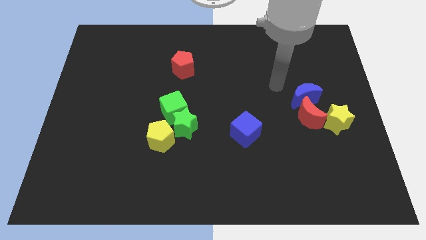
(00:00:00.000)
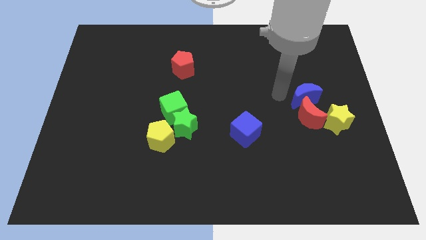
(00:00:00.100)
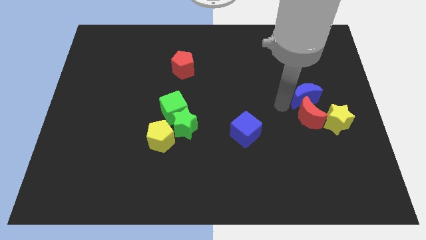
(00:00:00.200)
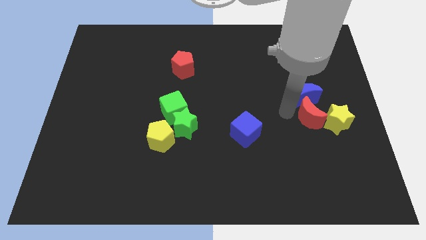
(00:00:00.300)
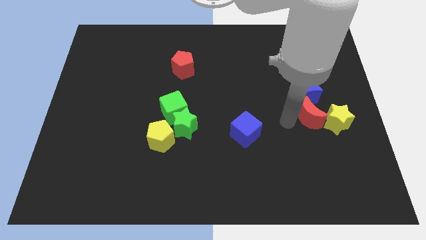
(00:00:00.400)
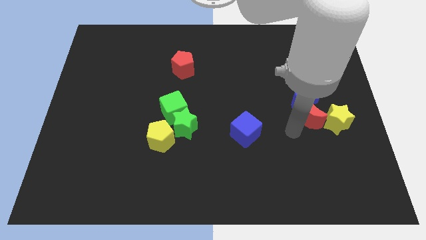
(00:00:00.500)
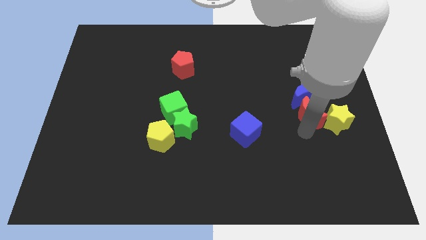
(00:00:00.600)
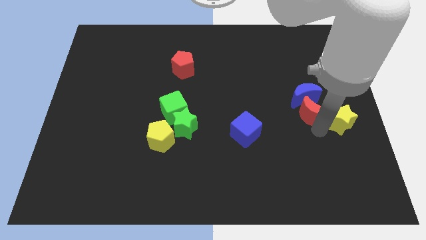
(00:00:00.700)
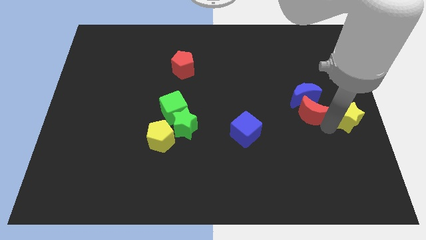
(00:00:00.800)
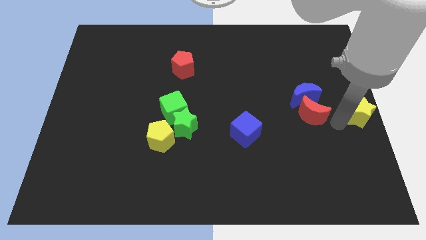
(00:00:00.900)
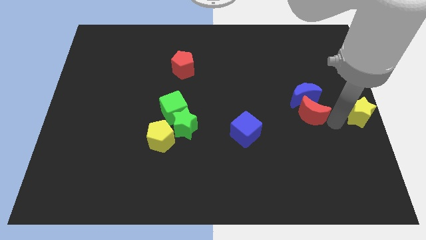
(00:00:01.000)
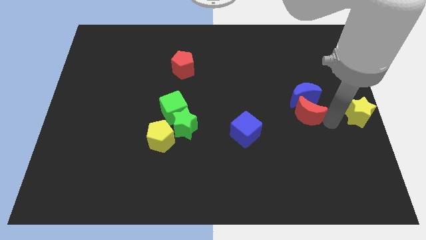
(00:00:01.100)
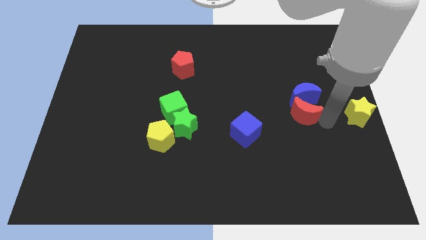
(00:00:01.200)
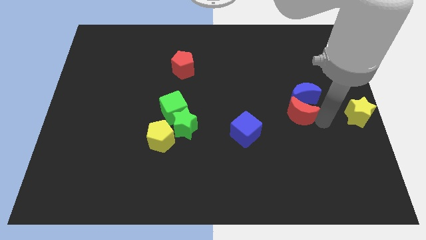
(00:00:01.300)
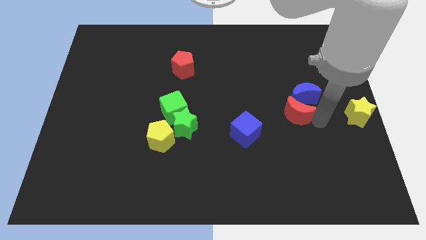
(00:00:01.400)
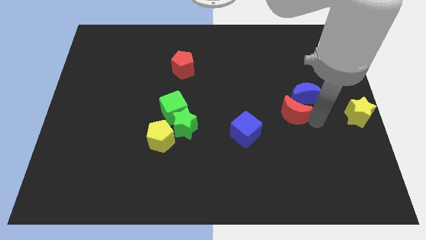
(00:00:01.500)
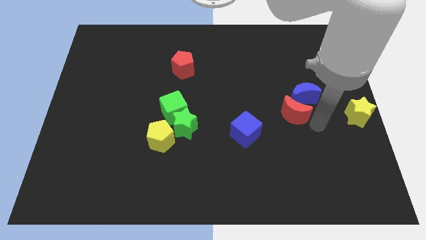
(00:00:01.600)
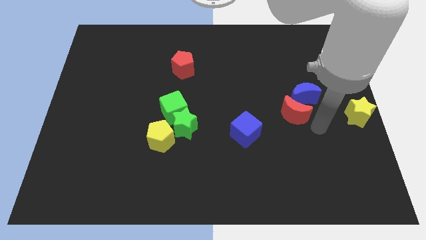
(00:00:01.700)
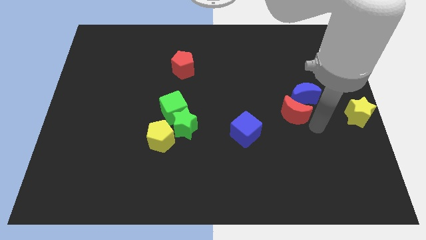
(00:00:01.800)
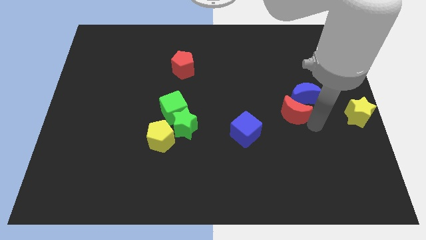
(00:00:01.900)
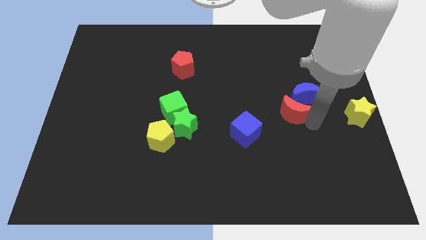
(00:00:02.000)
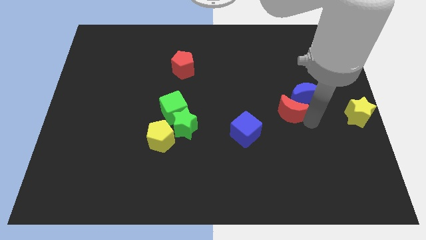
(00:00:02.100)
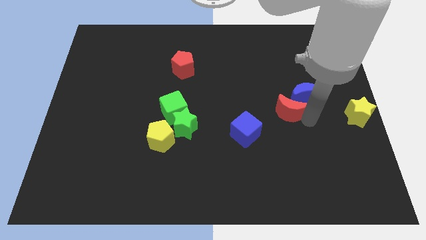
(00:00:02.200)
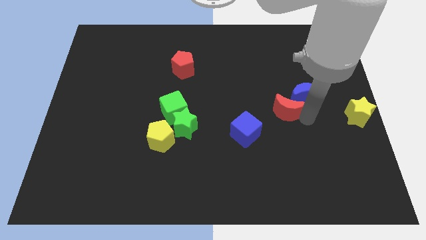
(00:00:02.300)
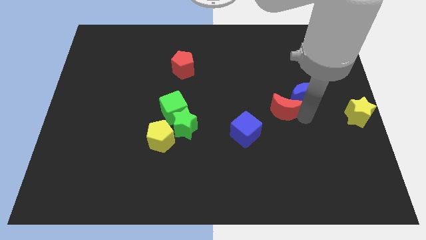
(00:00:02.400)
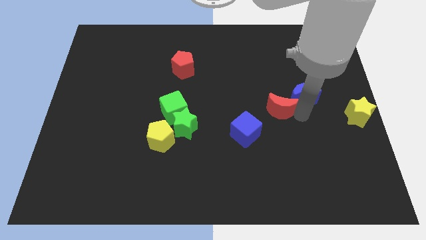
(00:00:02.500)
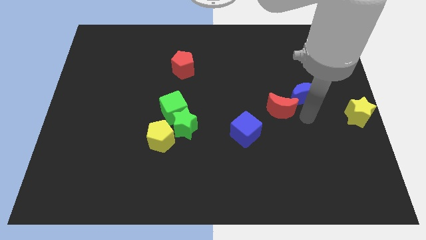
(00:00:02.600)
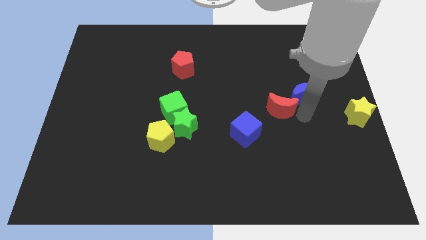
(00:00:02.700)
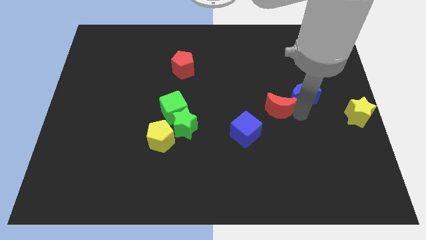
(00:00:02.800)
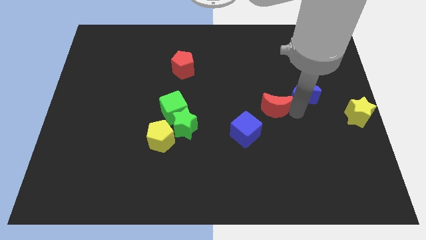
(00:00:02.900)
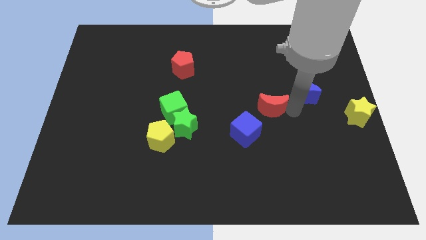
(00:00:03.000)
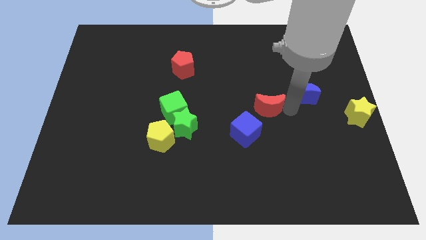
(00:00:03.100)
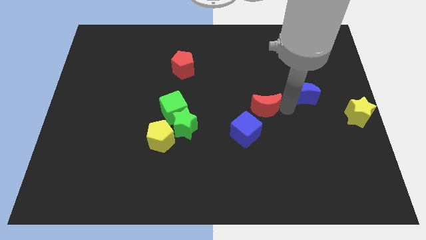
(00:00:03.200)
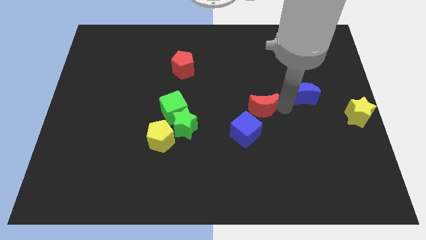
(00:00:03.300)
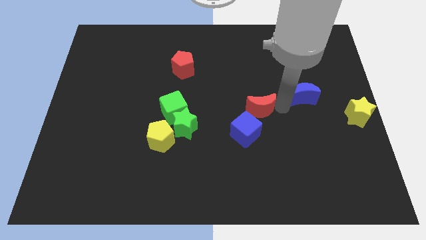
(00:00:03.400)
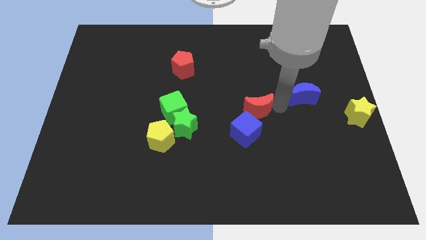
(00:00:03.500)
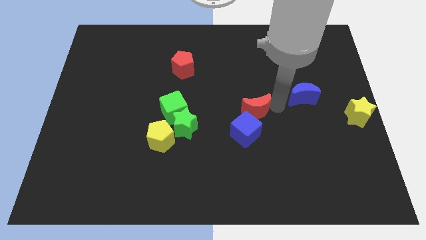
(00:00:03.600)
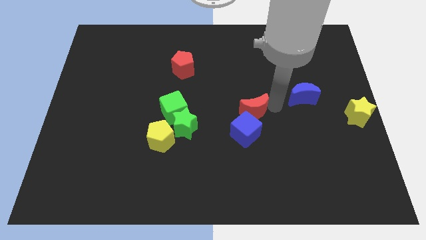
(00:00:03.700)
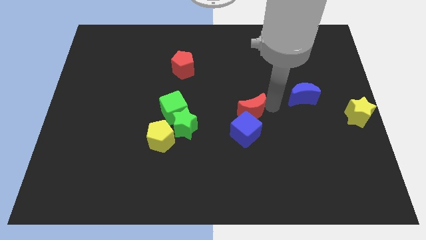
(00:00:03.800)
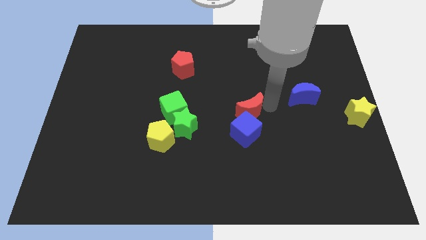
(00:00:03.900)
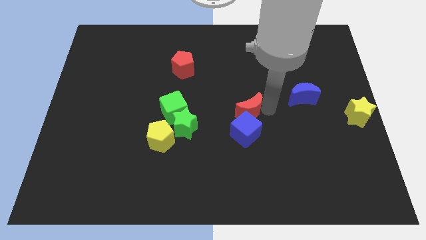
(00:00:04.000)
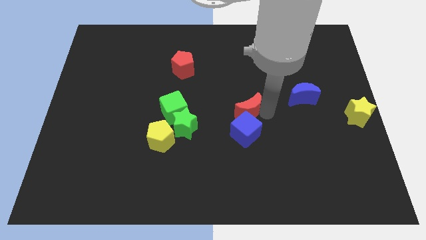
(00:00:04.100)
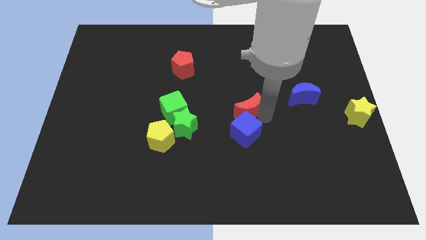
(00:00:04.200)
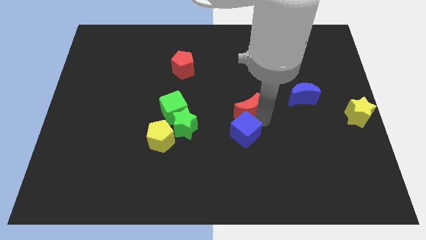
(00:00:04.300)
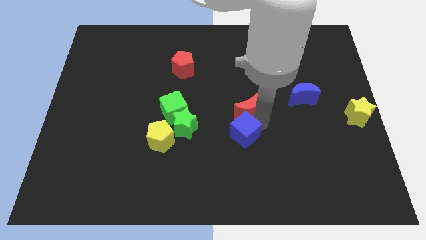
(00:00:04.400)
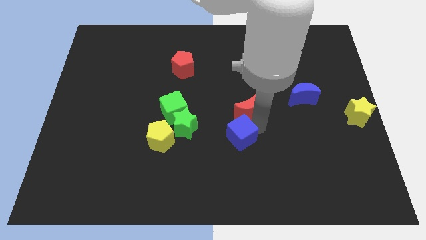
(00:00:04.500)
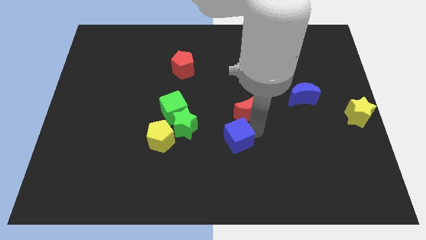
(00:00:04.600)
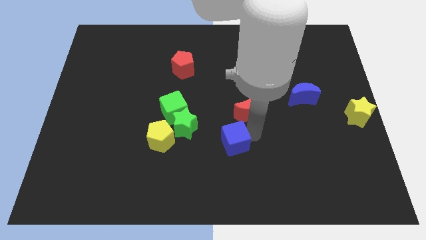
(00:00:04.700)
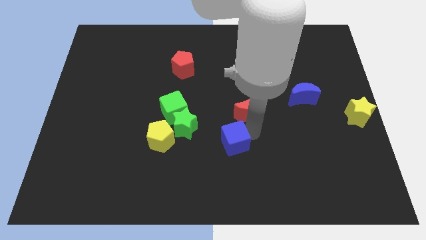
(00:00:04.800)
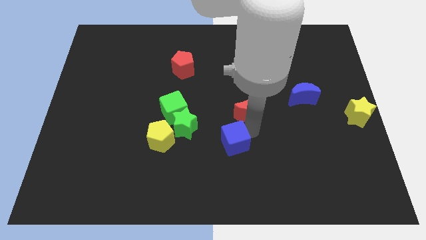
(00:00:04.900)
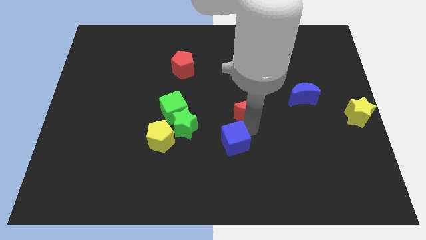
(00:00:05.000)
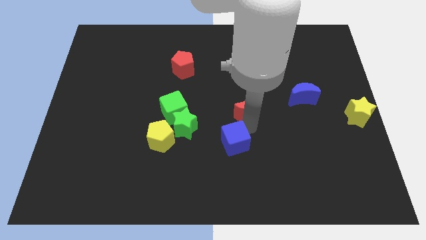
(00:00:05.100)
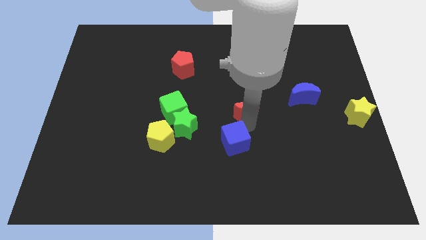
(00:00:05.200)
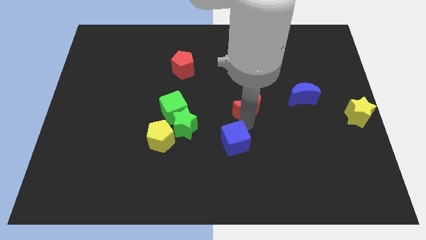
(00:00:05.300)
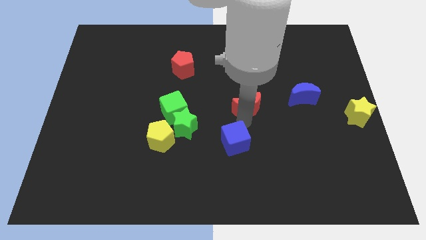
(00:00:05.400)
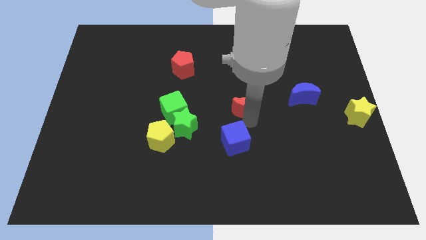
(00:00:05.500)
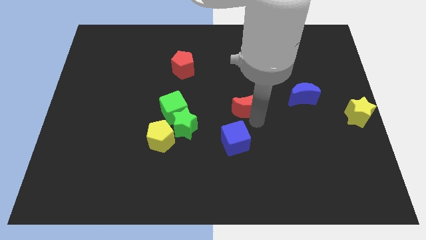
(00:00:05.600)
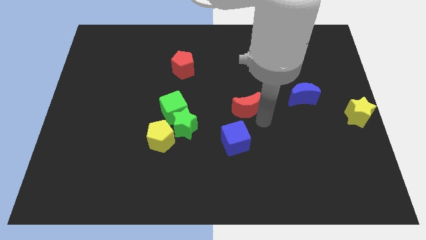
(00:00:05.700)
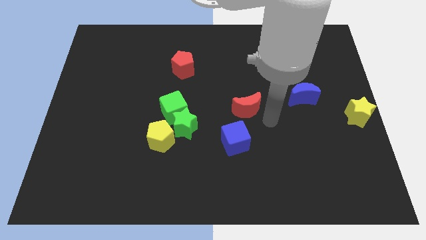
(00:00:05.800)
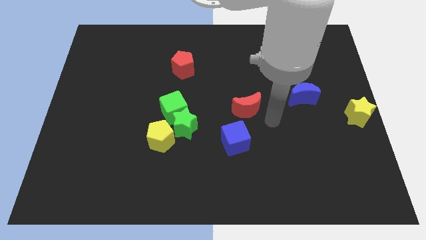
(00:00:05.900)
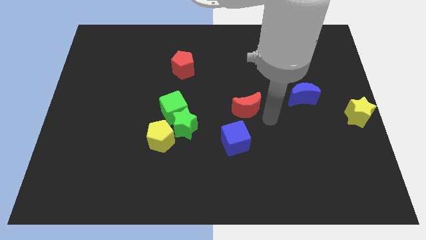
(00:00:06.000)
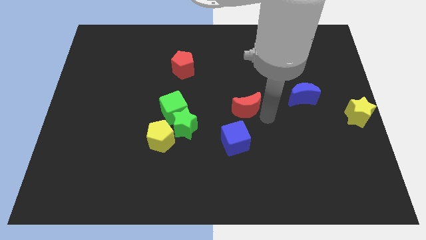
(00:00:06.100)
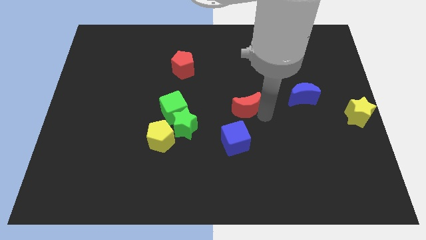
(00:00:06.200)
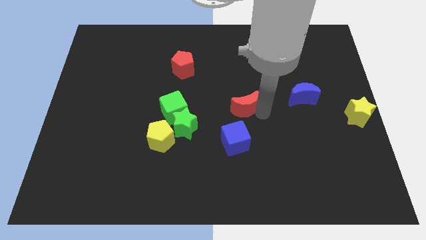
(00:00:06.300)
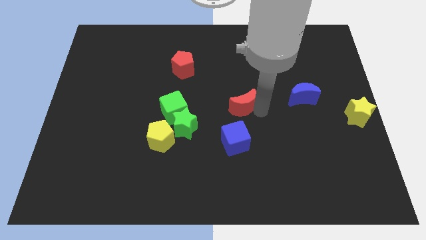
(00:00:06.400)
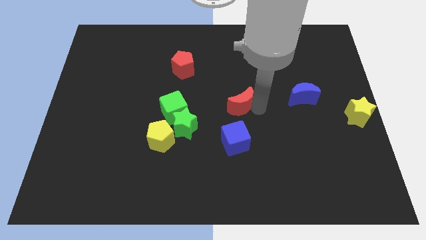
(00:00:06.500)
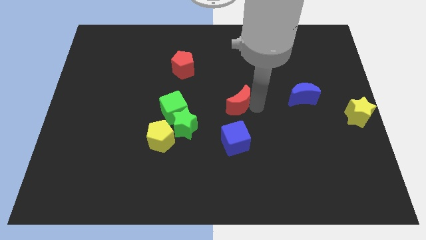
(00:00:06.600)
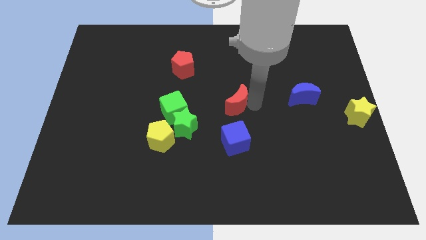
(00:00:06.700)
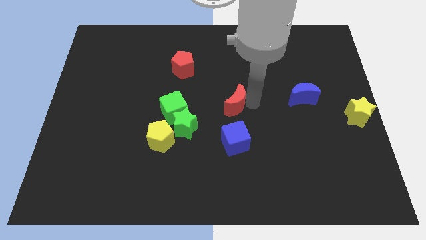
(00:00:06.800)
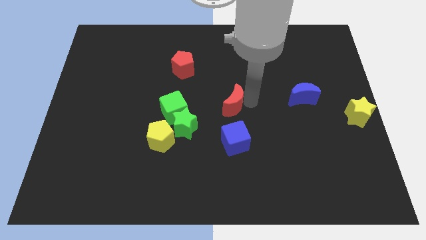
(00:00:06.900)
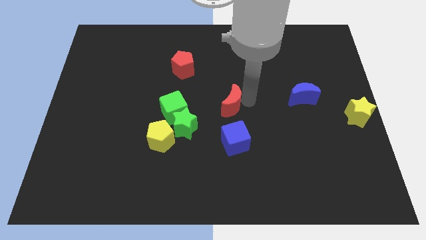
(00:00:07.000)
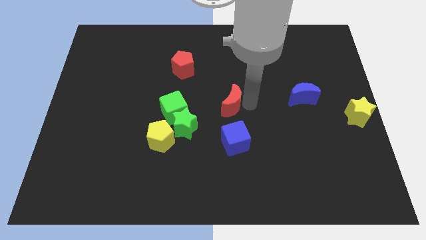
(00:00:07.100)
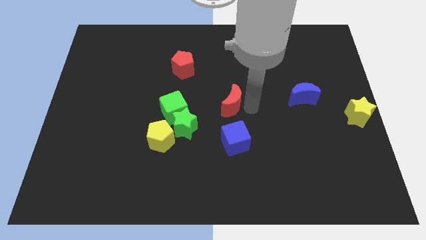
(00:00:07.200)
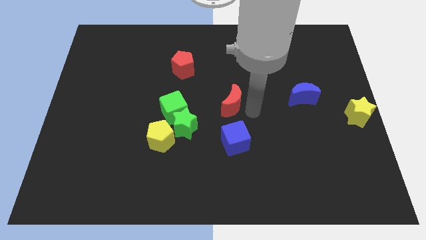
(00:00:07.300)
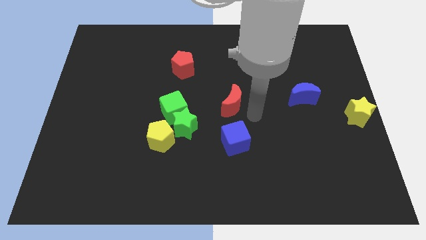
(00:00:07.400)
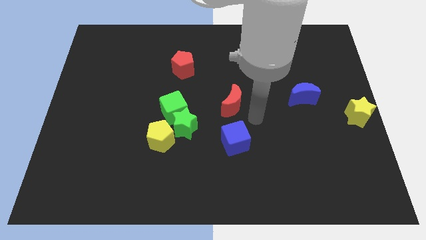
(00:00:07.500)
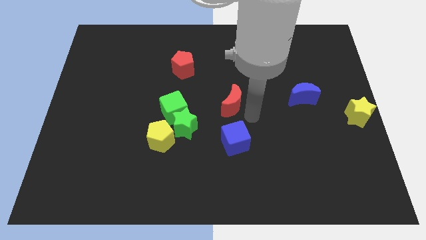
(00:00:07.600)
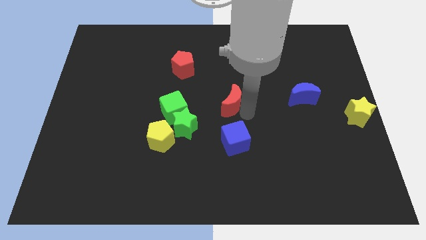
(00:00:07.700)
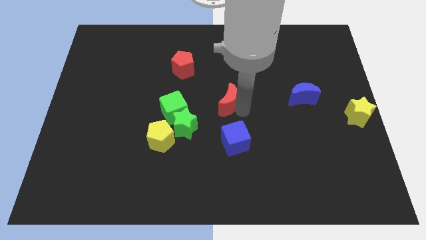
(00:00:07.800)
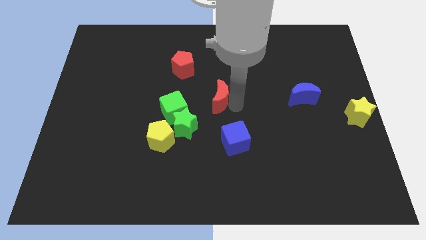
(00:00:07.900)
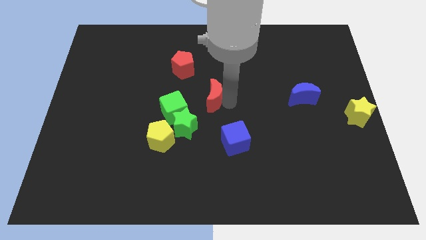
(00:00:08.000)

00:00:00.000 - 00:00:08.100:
put the red moon to the top right side of the green cube
